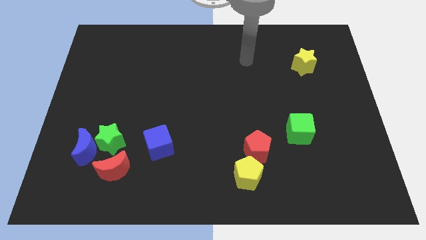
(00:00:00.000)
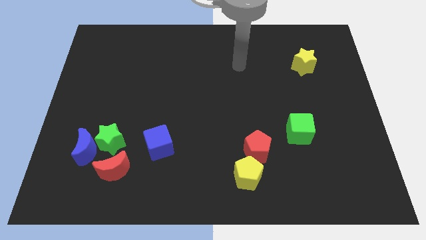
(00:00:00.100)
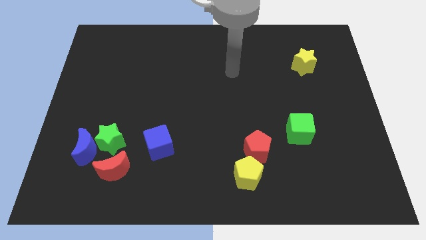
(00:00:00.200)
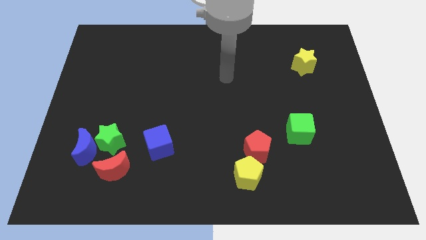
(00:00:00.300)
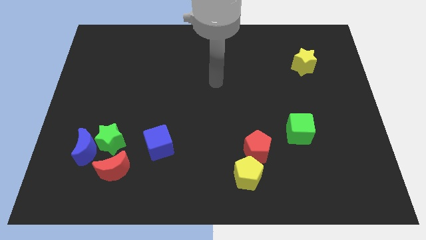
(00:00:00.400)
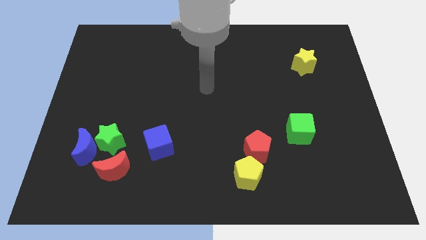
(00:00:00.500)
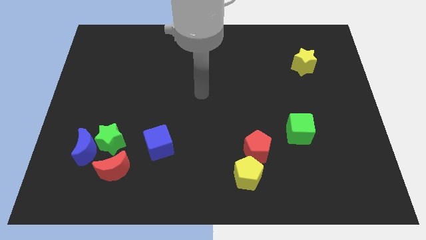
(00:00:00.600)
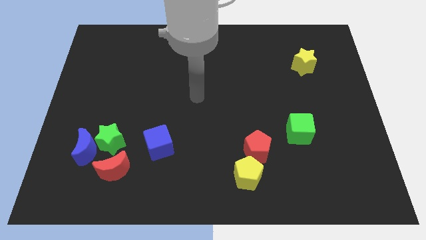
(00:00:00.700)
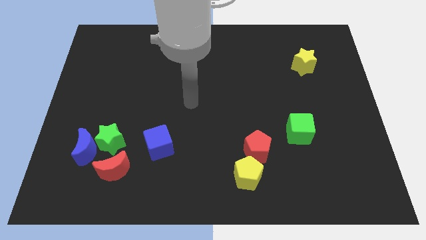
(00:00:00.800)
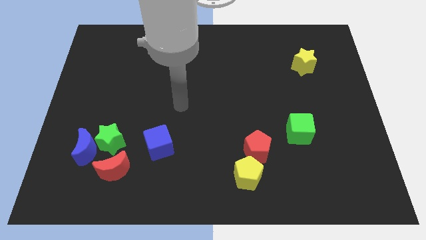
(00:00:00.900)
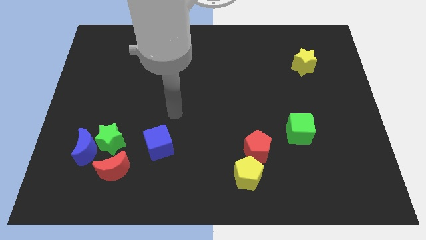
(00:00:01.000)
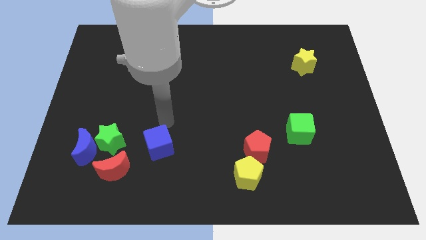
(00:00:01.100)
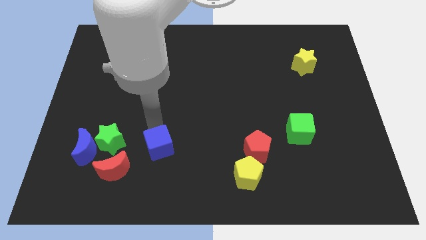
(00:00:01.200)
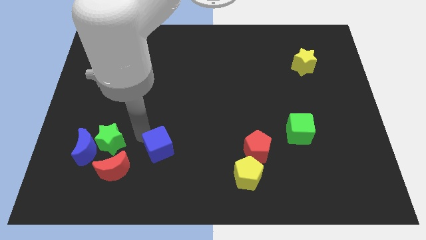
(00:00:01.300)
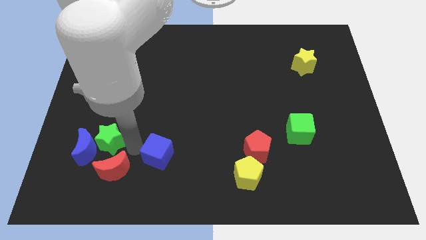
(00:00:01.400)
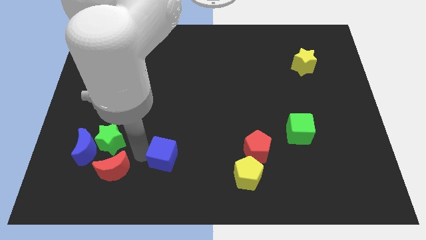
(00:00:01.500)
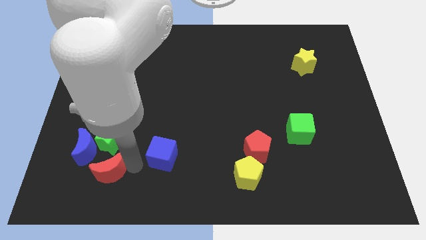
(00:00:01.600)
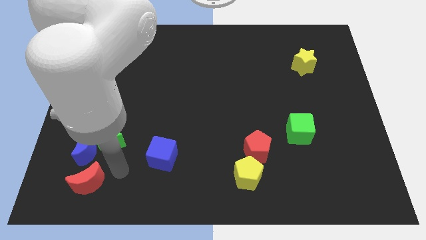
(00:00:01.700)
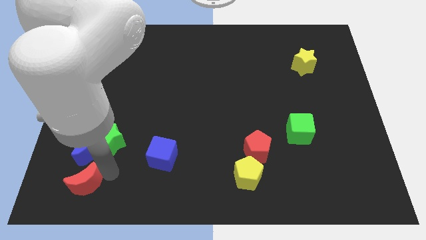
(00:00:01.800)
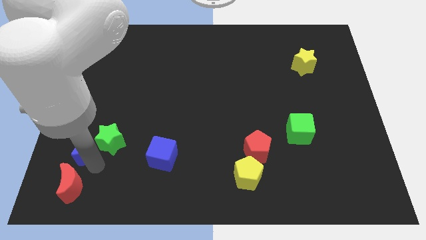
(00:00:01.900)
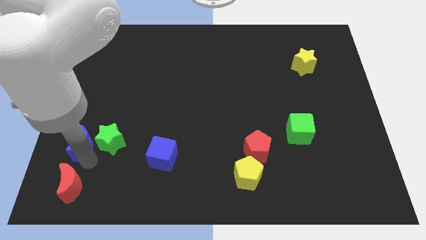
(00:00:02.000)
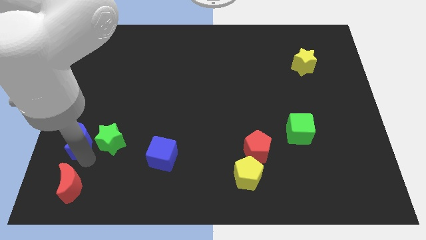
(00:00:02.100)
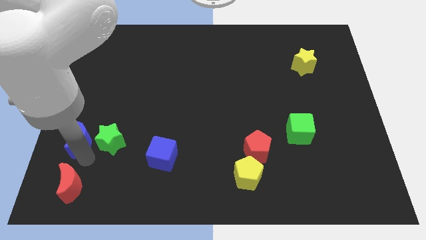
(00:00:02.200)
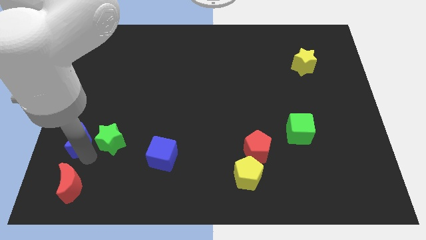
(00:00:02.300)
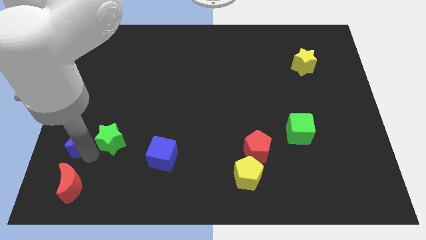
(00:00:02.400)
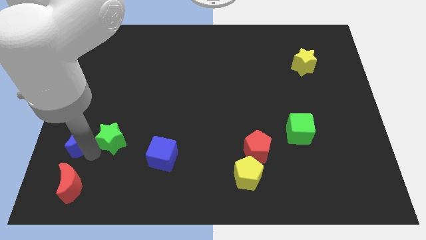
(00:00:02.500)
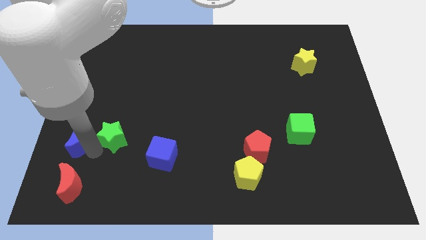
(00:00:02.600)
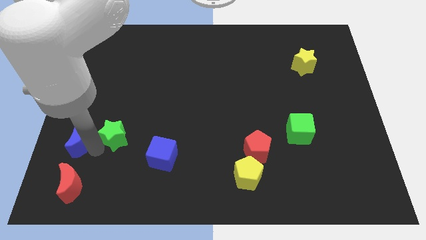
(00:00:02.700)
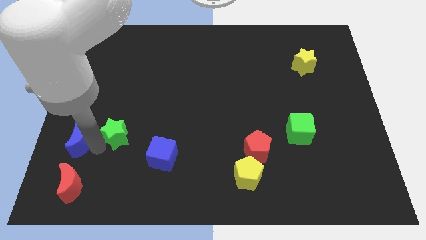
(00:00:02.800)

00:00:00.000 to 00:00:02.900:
move the green star away from the blue moon and red moon

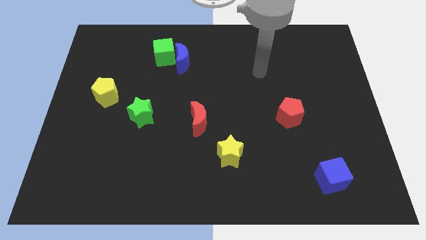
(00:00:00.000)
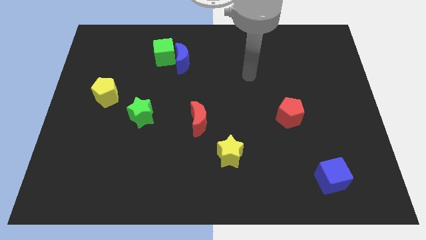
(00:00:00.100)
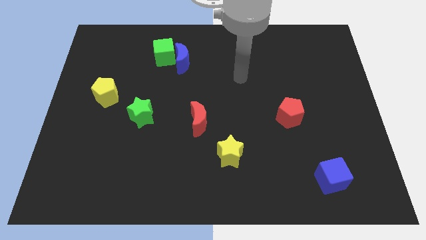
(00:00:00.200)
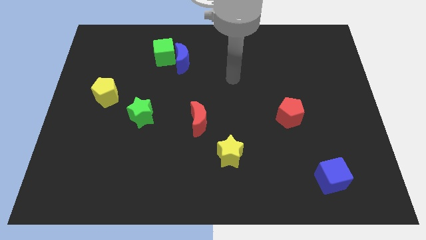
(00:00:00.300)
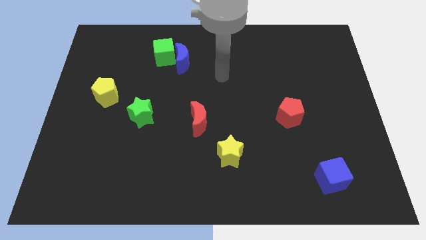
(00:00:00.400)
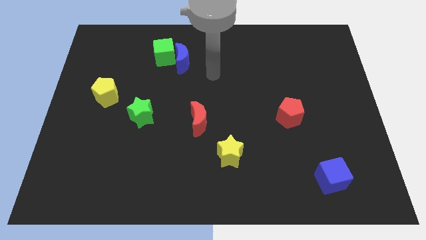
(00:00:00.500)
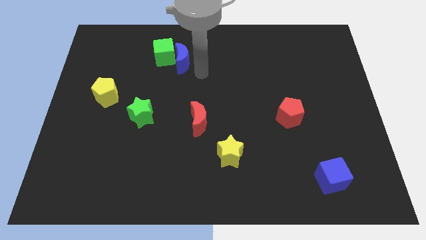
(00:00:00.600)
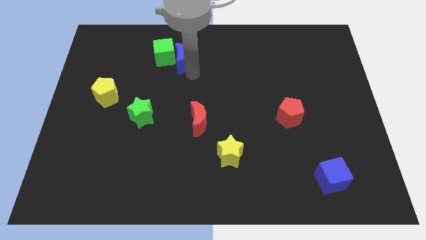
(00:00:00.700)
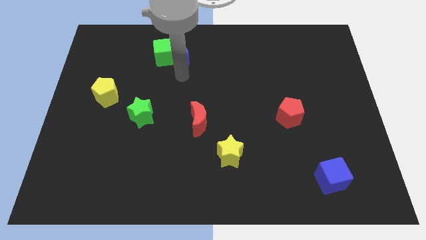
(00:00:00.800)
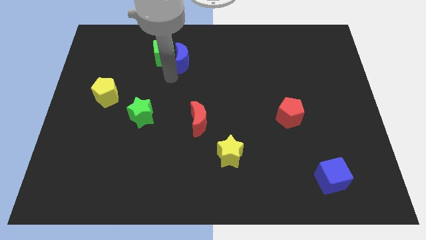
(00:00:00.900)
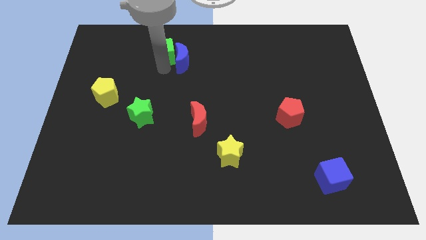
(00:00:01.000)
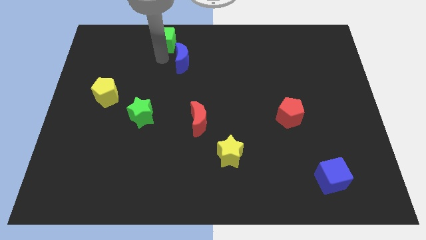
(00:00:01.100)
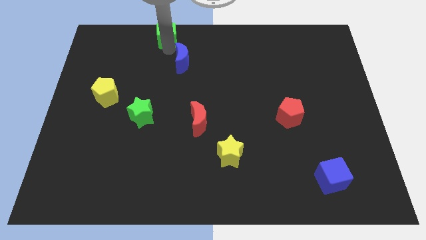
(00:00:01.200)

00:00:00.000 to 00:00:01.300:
move the blue moon away from the green cube

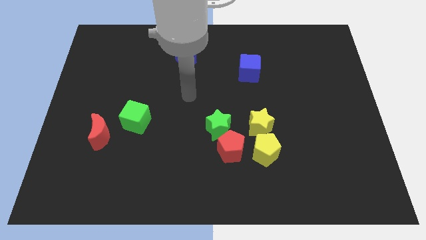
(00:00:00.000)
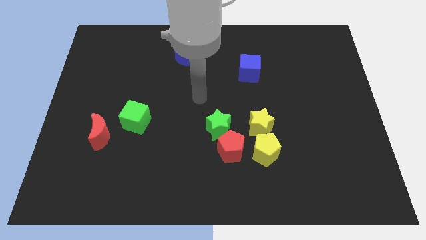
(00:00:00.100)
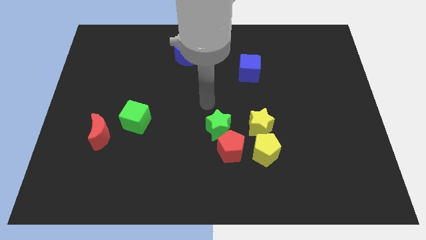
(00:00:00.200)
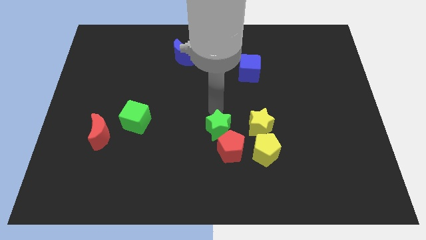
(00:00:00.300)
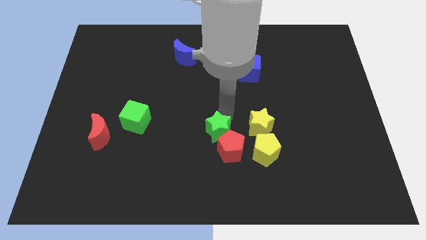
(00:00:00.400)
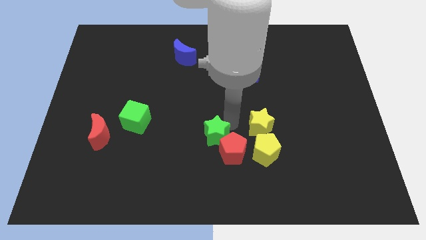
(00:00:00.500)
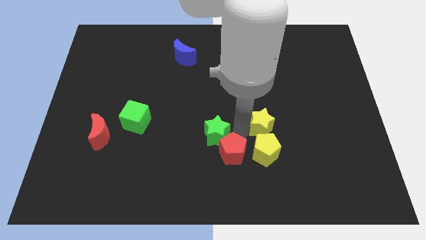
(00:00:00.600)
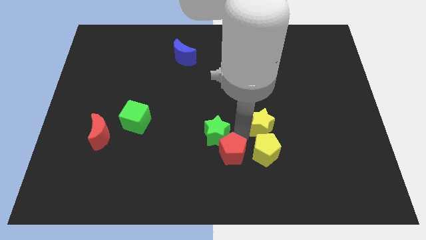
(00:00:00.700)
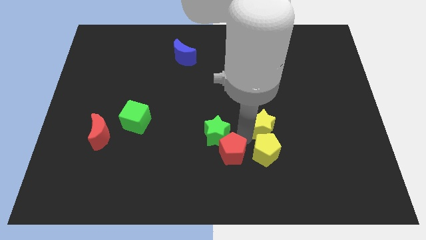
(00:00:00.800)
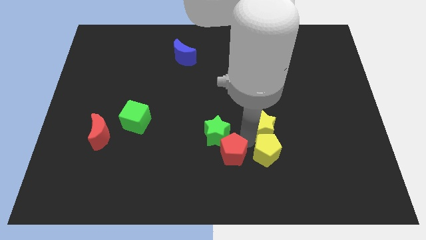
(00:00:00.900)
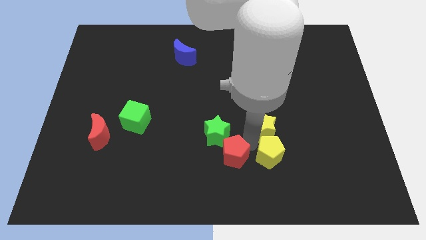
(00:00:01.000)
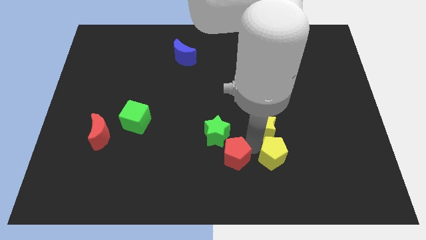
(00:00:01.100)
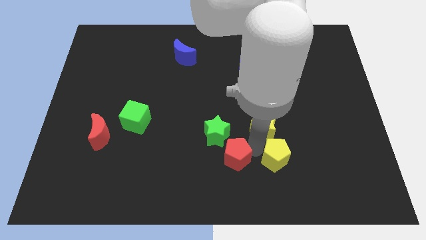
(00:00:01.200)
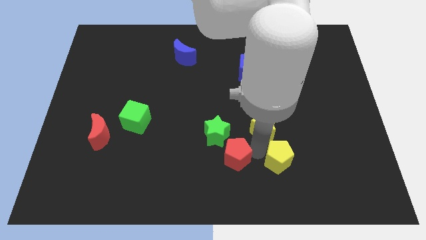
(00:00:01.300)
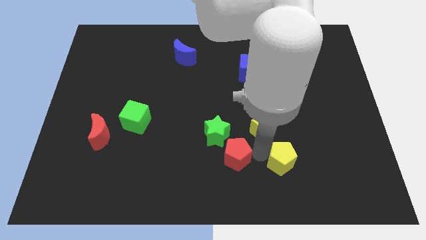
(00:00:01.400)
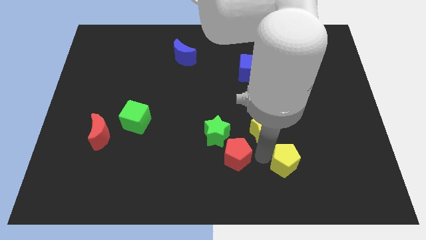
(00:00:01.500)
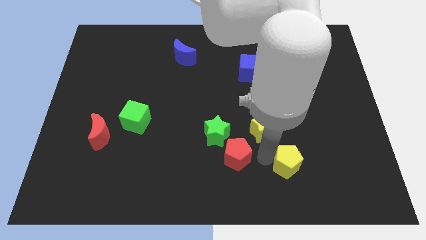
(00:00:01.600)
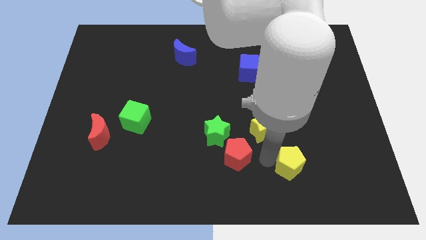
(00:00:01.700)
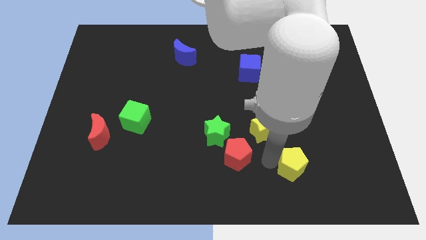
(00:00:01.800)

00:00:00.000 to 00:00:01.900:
separate the yellow pentagon from the yellow star and red pentagon

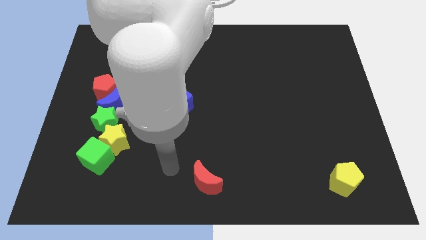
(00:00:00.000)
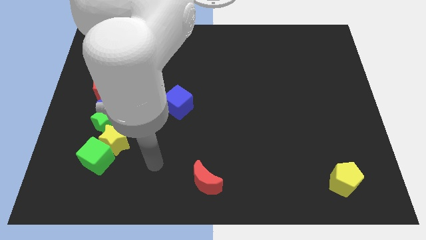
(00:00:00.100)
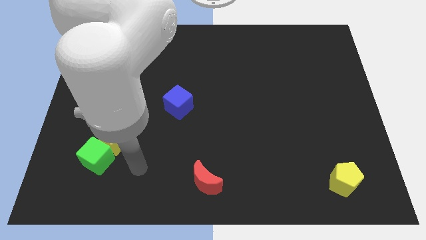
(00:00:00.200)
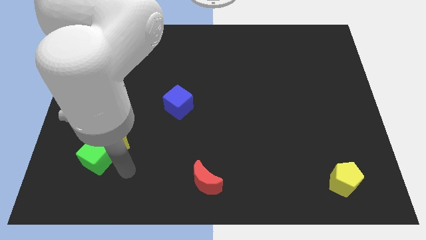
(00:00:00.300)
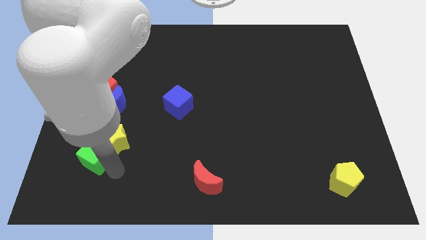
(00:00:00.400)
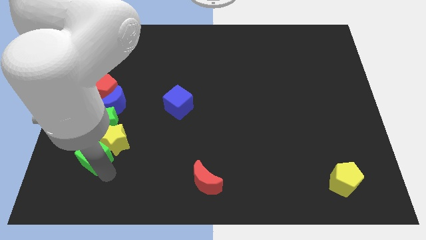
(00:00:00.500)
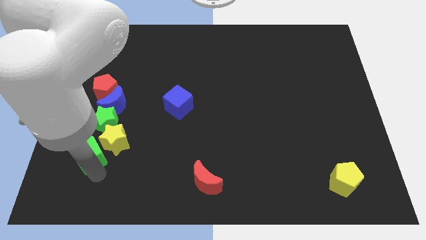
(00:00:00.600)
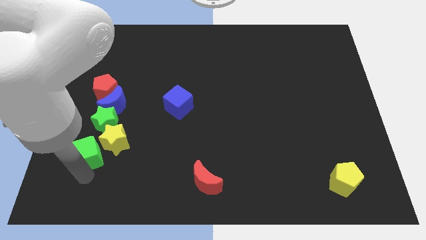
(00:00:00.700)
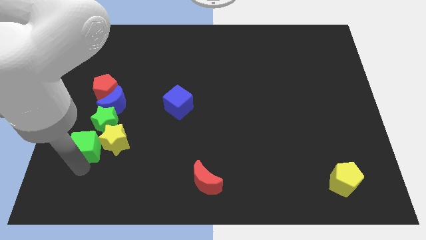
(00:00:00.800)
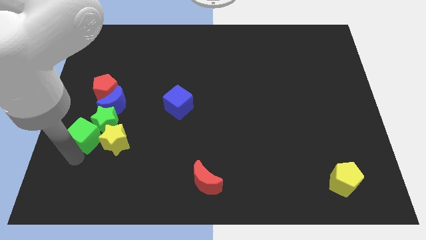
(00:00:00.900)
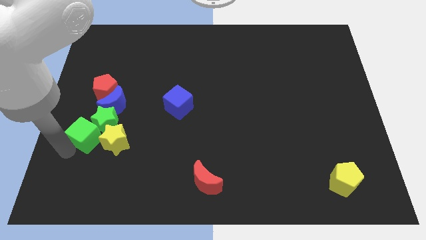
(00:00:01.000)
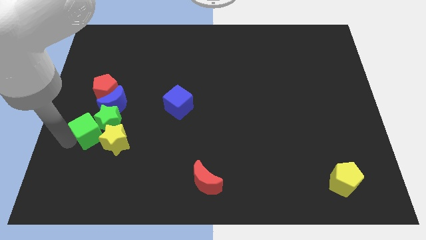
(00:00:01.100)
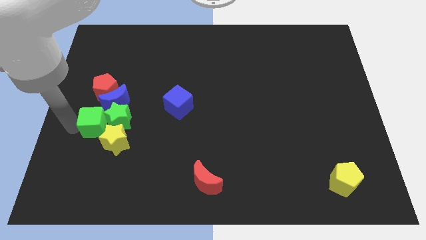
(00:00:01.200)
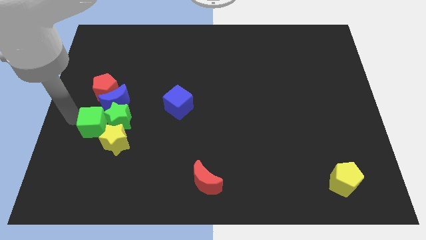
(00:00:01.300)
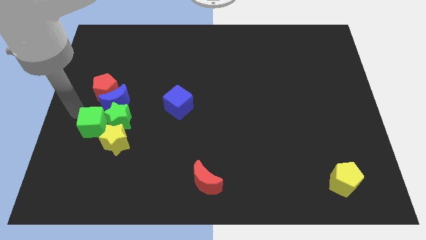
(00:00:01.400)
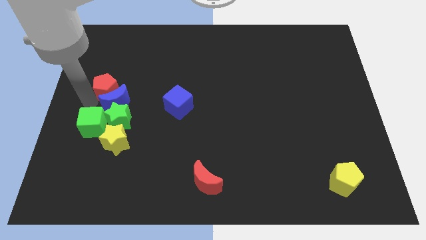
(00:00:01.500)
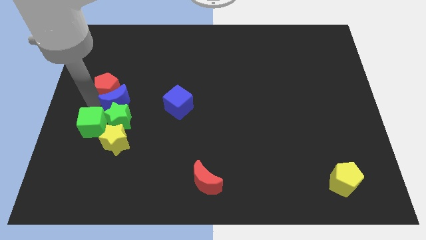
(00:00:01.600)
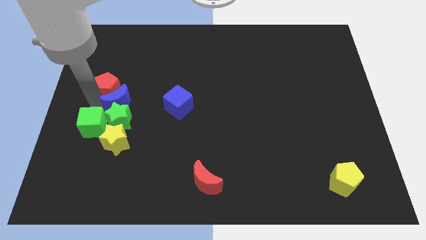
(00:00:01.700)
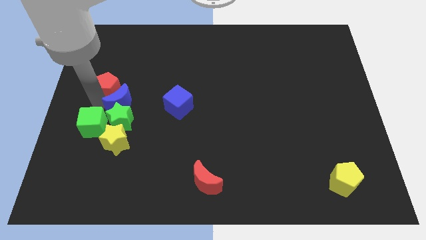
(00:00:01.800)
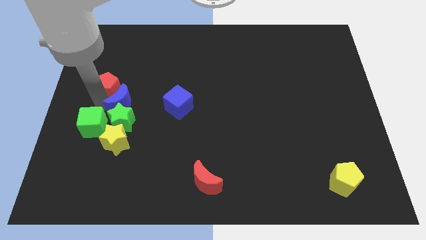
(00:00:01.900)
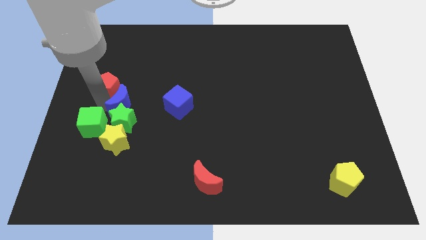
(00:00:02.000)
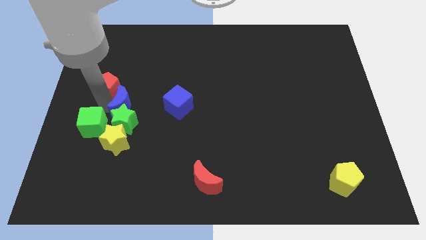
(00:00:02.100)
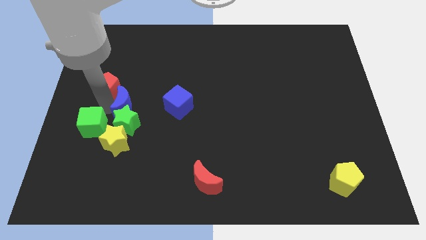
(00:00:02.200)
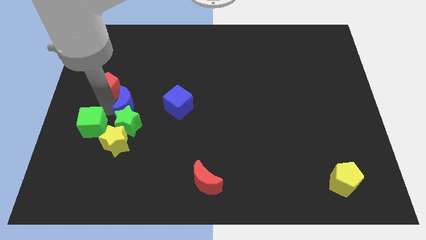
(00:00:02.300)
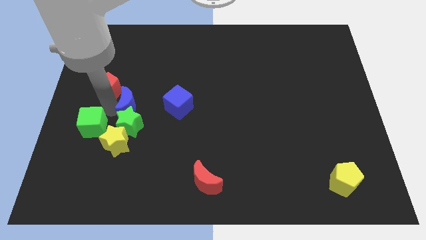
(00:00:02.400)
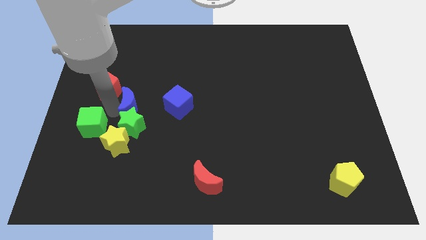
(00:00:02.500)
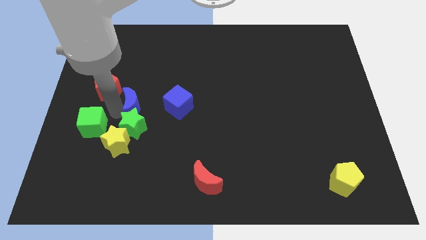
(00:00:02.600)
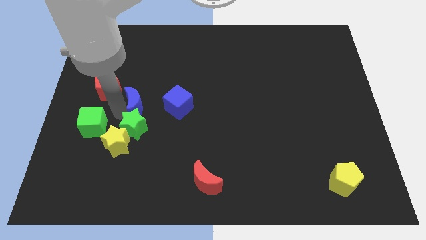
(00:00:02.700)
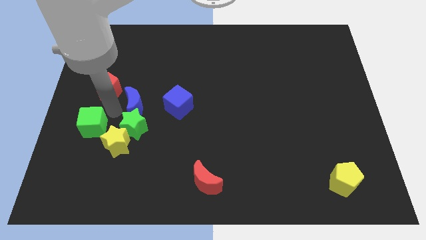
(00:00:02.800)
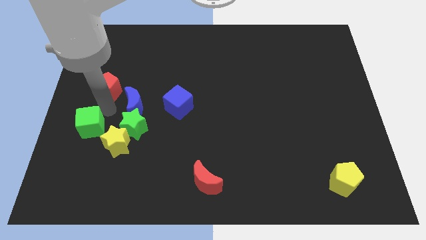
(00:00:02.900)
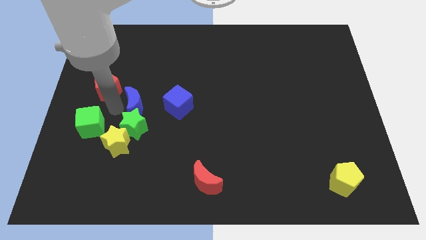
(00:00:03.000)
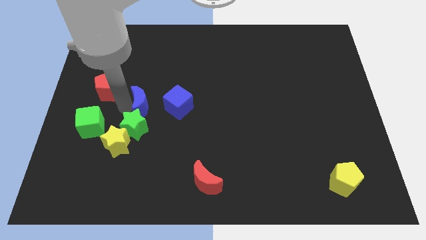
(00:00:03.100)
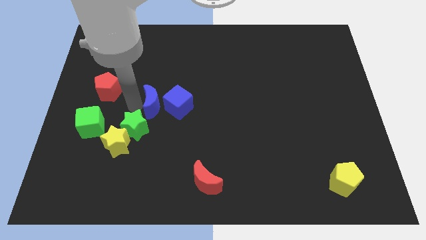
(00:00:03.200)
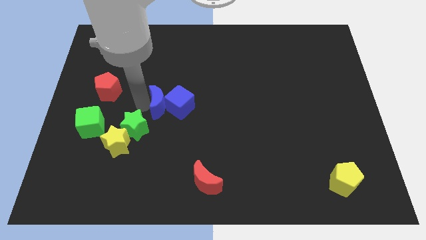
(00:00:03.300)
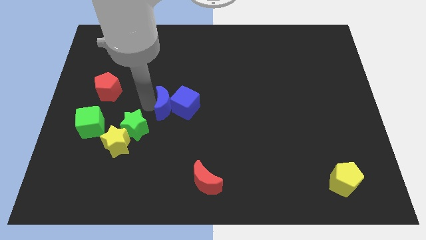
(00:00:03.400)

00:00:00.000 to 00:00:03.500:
move the blue moon away from the red pentagon and green star
